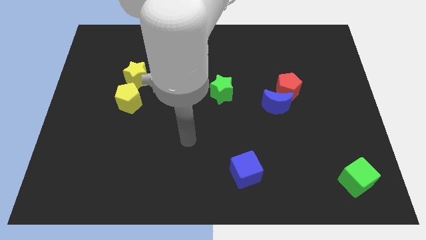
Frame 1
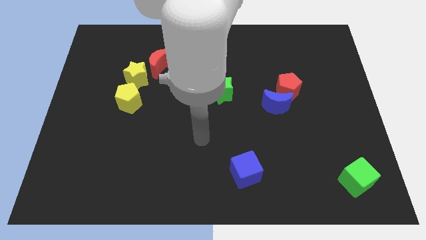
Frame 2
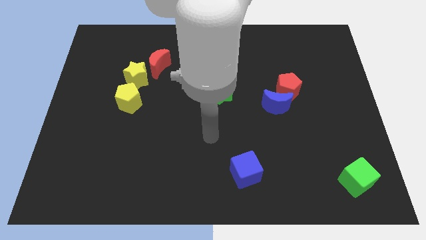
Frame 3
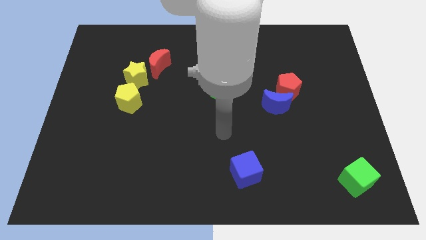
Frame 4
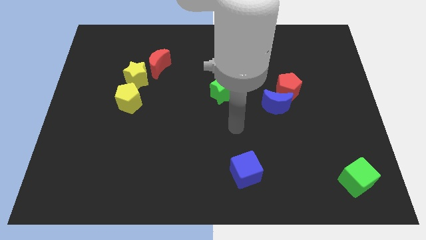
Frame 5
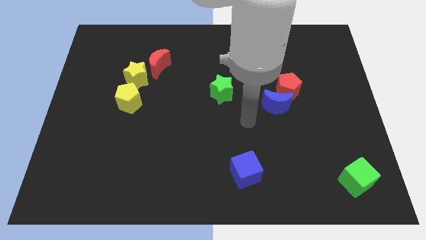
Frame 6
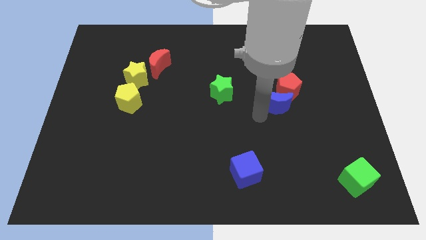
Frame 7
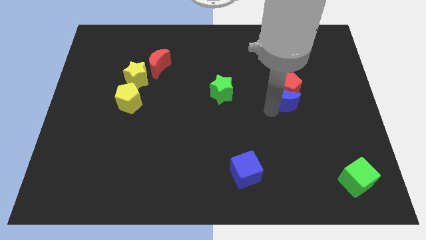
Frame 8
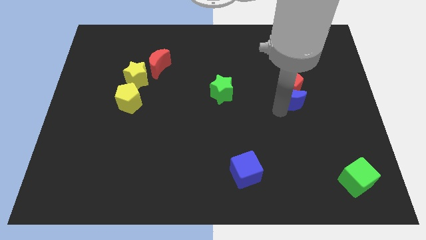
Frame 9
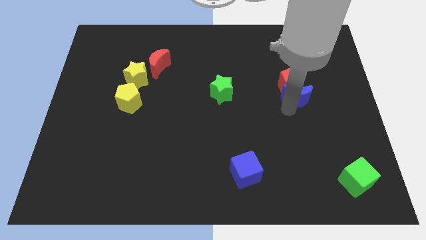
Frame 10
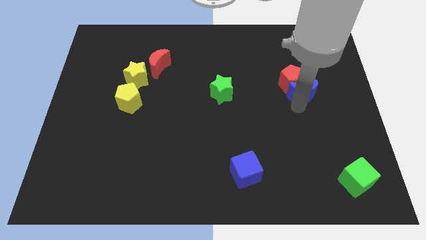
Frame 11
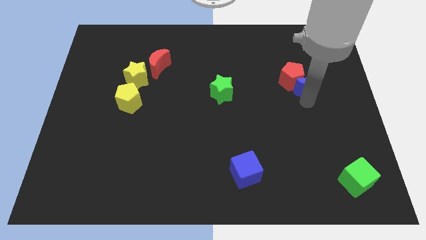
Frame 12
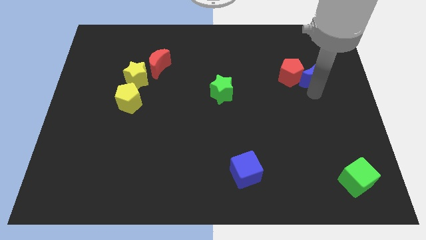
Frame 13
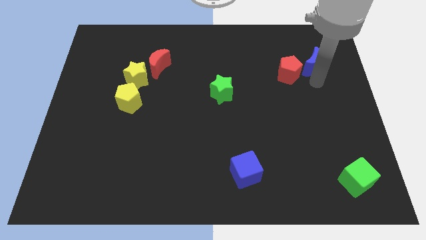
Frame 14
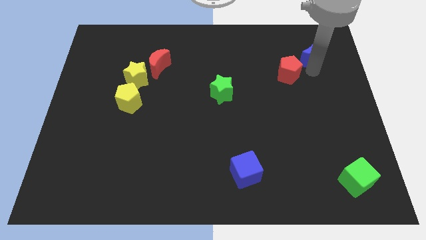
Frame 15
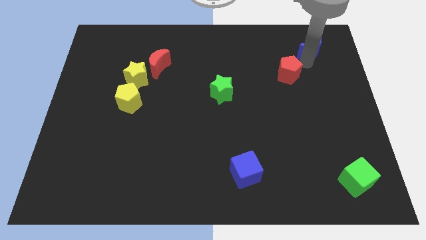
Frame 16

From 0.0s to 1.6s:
separate the red pentagon from the blue moon

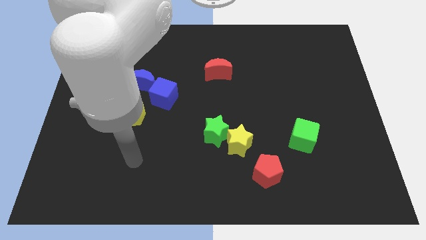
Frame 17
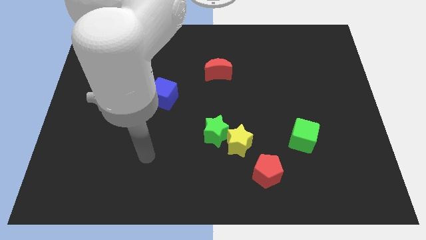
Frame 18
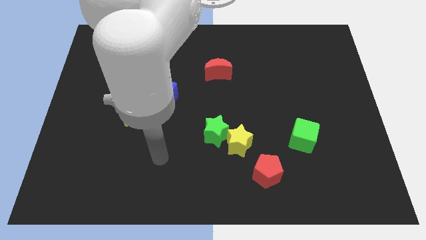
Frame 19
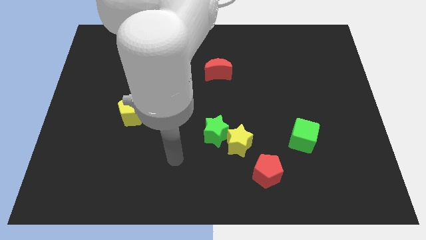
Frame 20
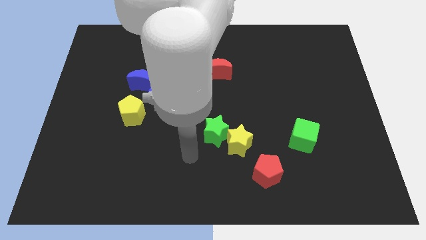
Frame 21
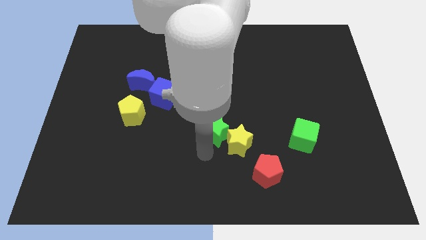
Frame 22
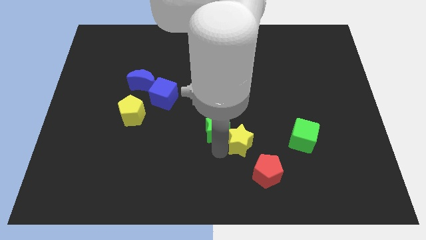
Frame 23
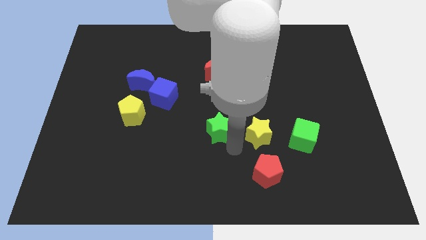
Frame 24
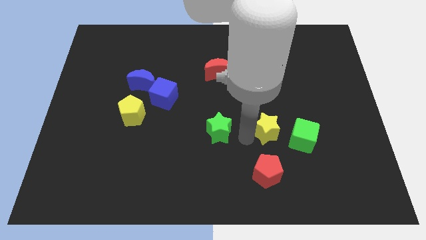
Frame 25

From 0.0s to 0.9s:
move the green star away from the yellow star

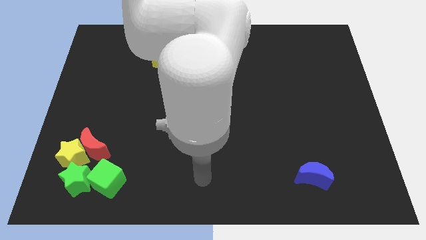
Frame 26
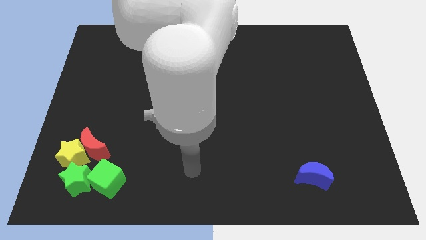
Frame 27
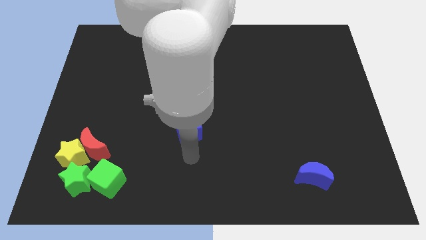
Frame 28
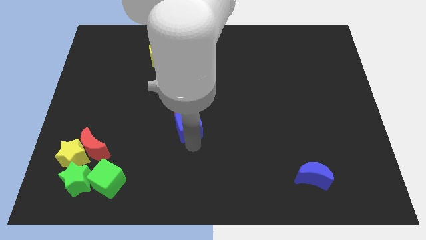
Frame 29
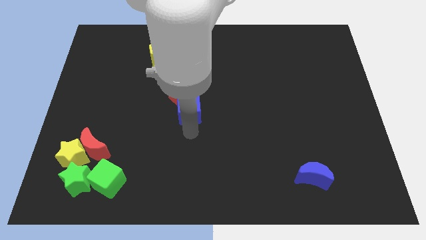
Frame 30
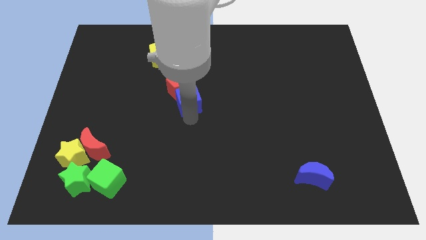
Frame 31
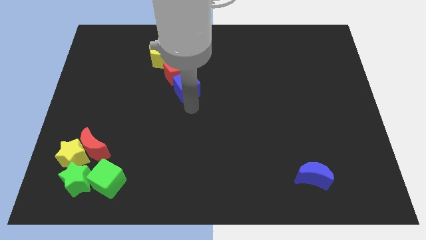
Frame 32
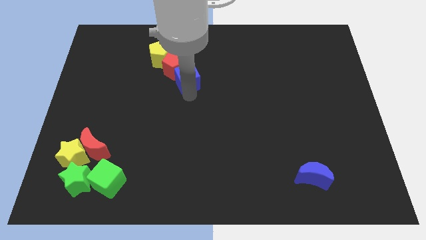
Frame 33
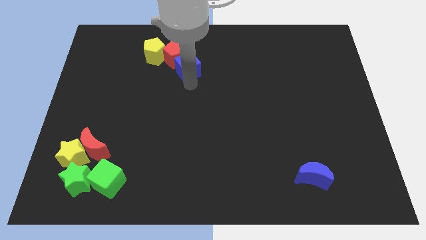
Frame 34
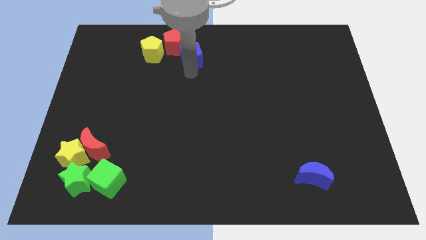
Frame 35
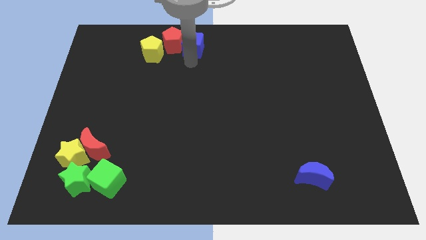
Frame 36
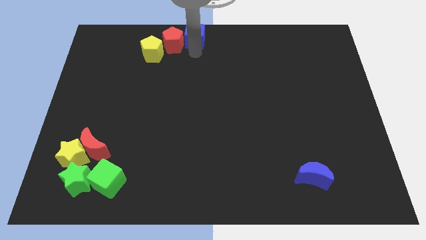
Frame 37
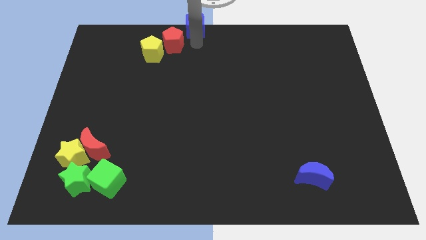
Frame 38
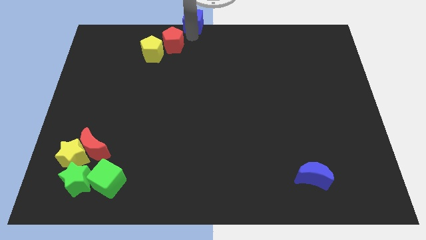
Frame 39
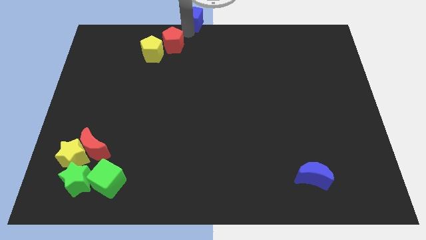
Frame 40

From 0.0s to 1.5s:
separate the red pentagon from the blue cube

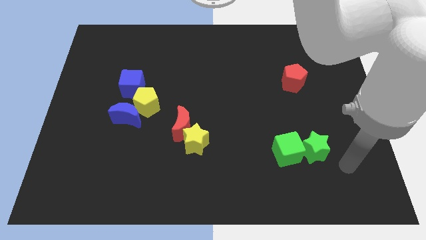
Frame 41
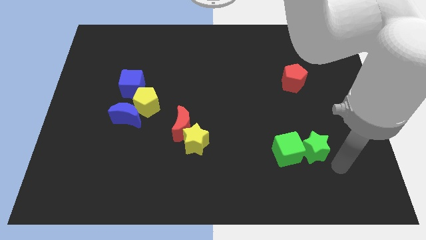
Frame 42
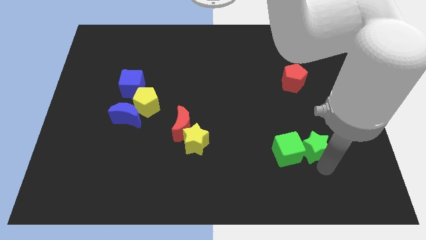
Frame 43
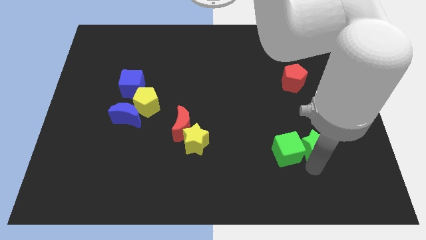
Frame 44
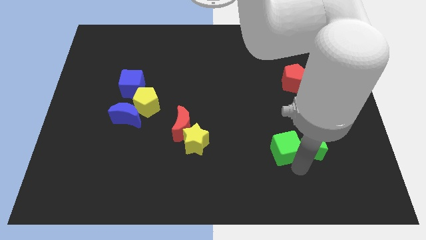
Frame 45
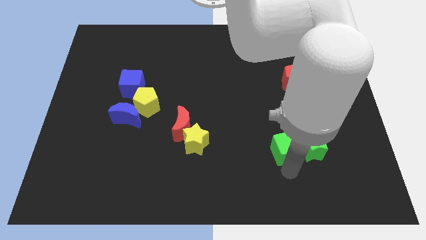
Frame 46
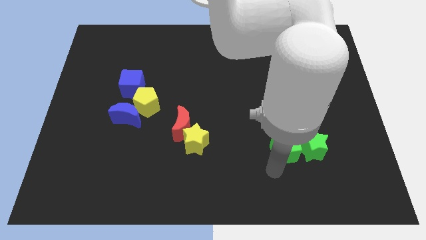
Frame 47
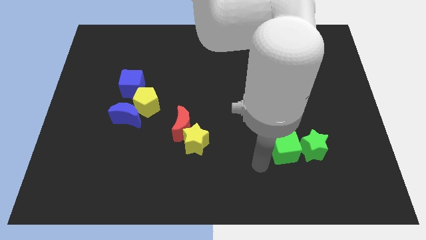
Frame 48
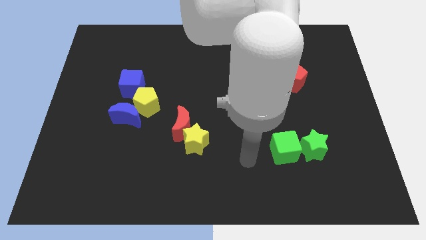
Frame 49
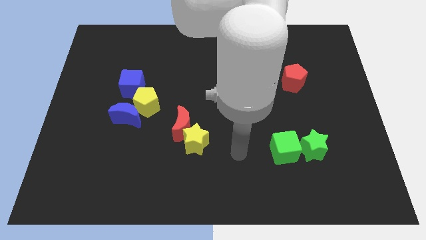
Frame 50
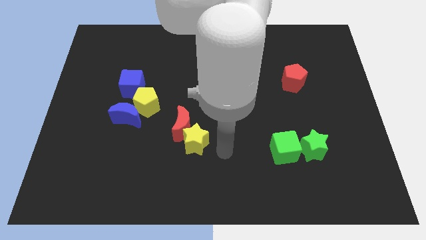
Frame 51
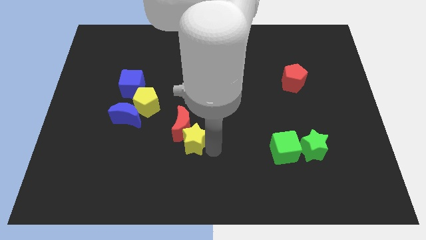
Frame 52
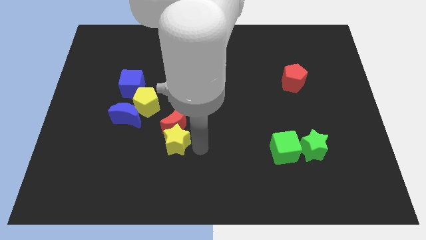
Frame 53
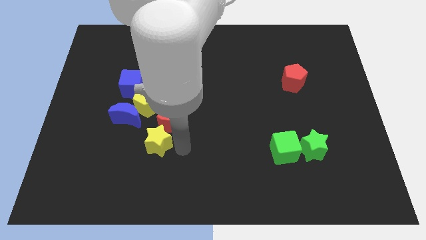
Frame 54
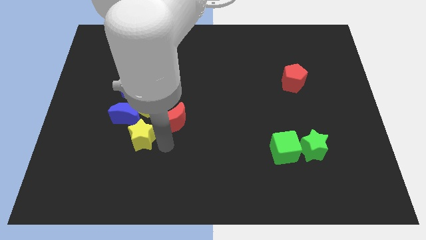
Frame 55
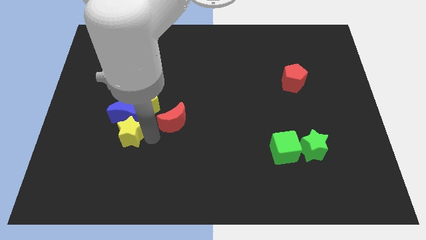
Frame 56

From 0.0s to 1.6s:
separate the red moon from the yellow star

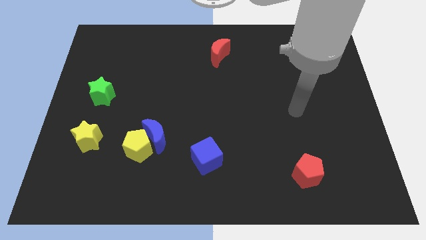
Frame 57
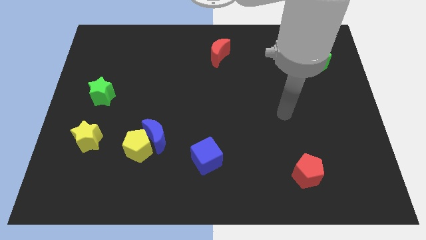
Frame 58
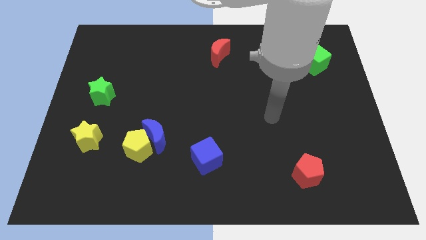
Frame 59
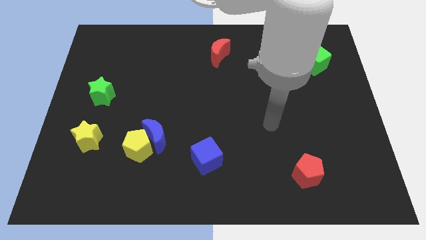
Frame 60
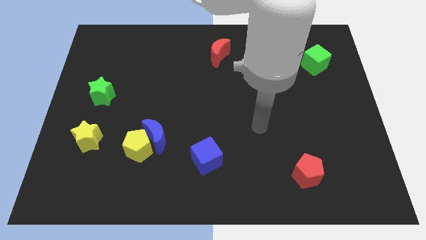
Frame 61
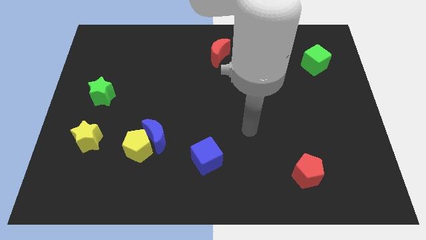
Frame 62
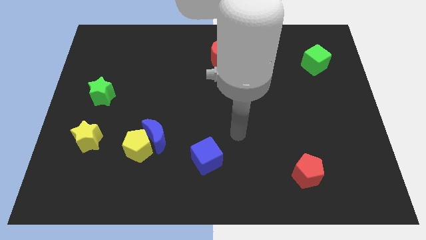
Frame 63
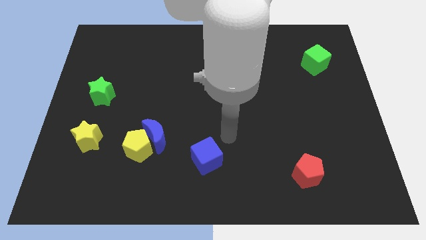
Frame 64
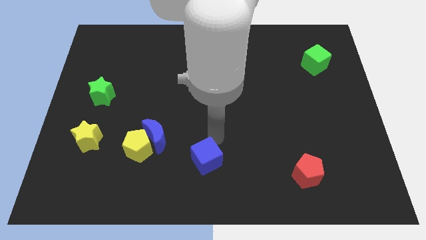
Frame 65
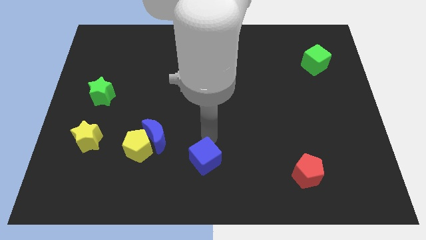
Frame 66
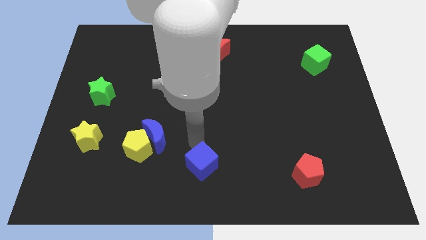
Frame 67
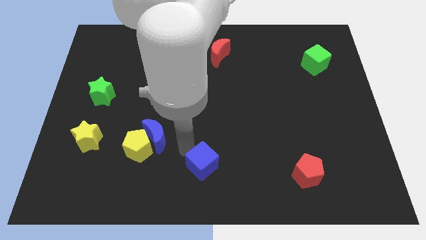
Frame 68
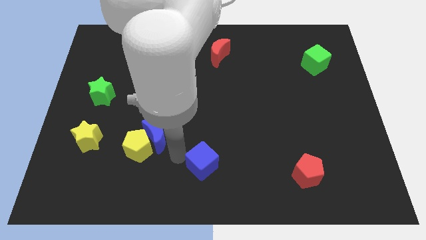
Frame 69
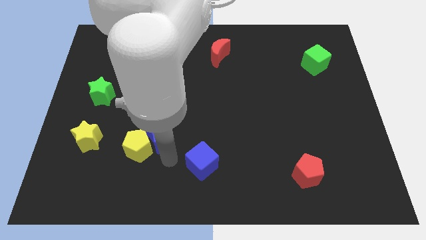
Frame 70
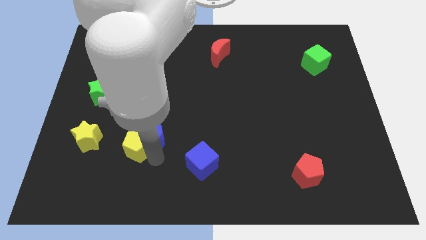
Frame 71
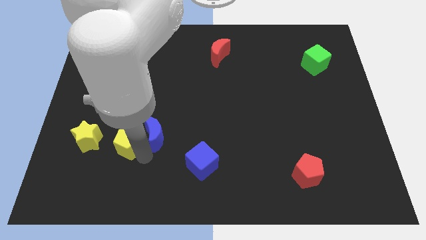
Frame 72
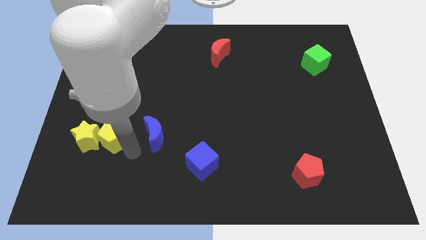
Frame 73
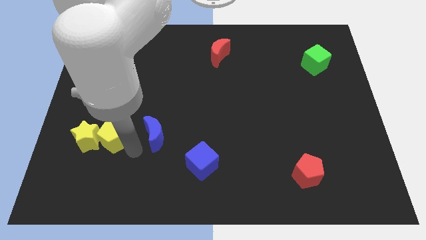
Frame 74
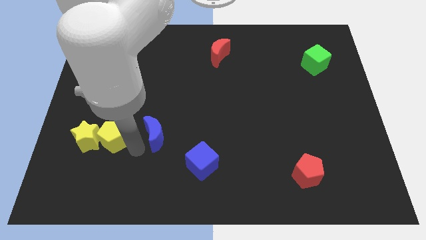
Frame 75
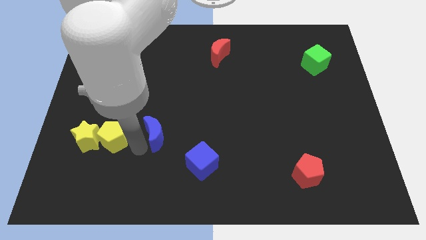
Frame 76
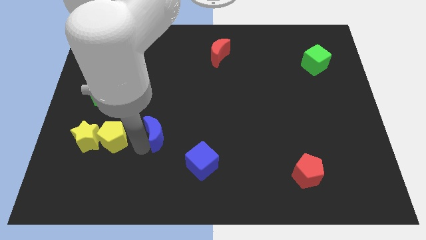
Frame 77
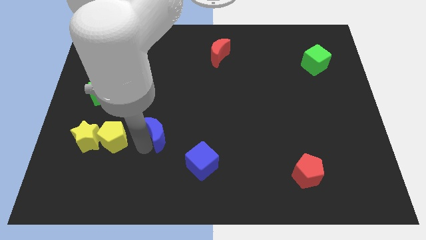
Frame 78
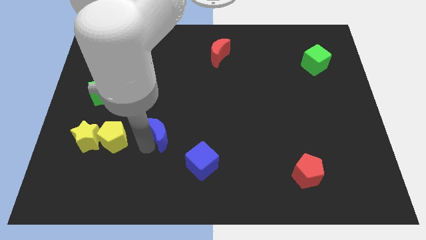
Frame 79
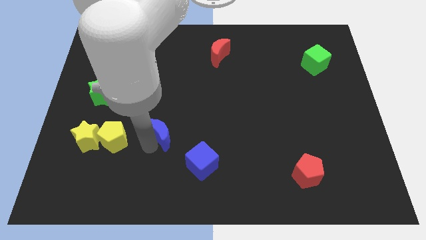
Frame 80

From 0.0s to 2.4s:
pull the blue moon apart from the yellow pentagon

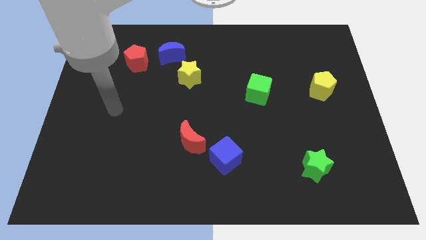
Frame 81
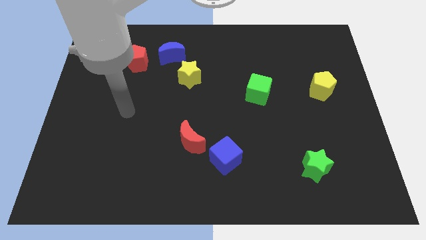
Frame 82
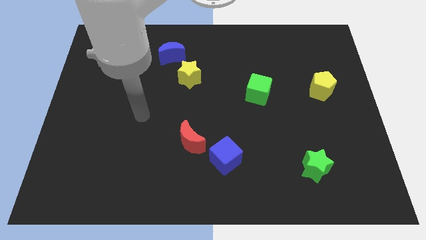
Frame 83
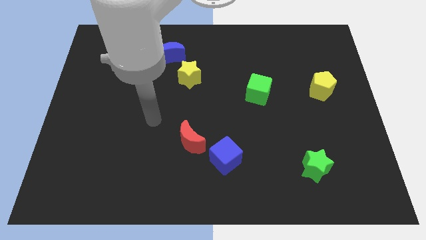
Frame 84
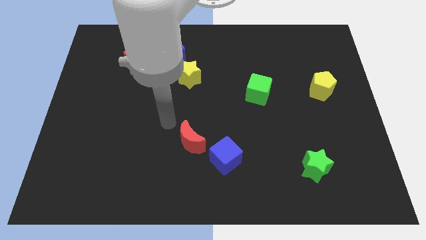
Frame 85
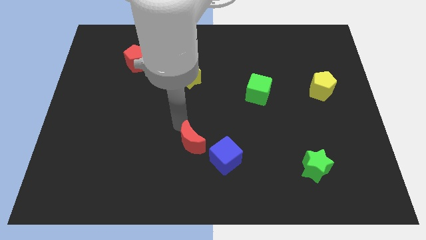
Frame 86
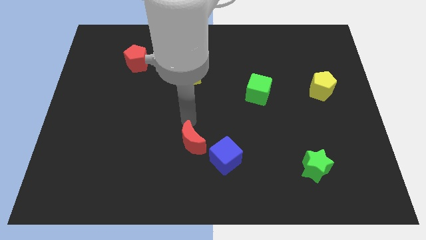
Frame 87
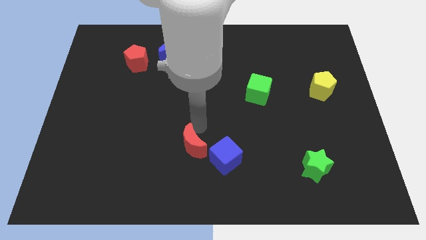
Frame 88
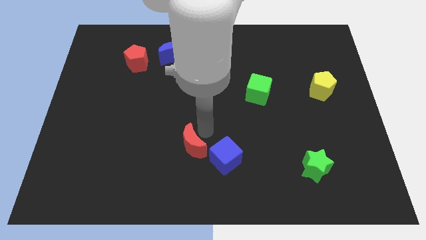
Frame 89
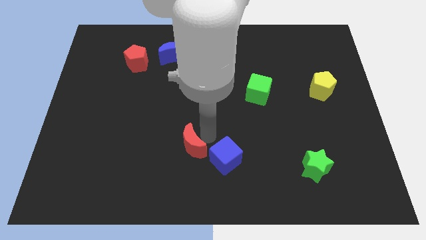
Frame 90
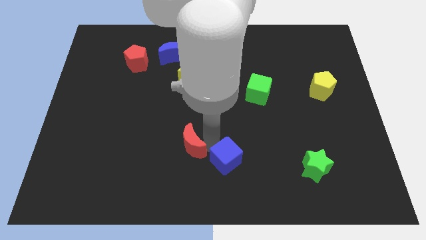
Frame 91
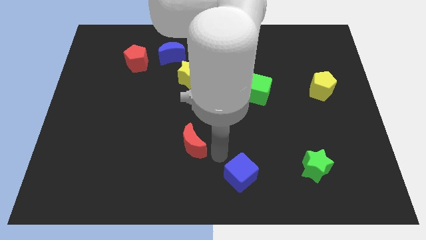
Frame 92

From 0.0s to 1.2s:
pull the red moon apart from the blue cube

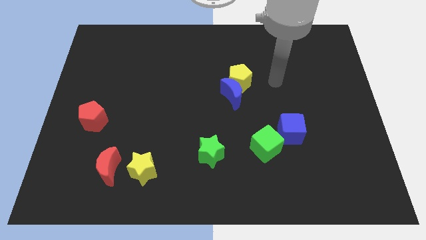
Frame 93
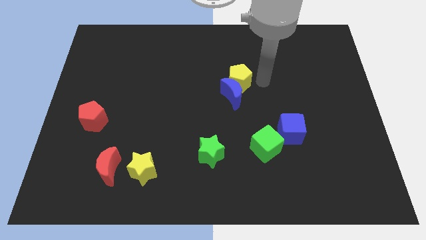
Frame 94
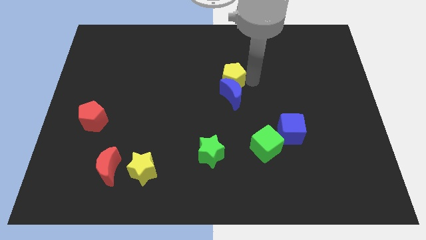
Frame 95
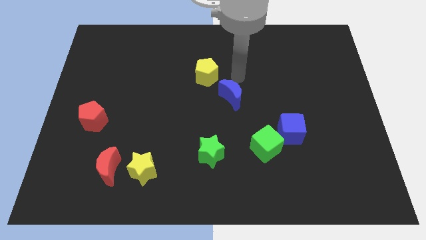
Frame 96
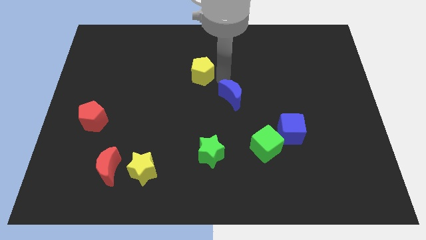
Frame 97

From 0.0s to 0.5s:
separate the blue moon from the yellow pentagon
